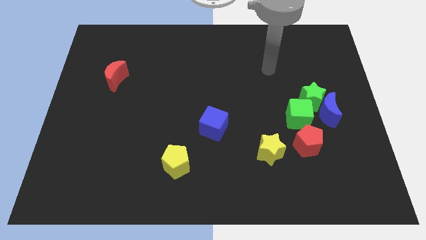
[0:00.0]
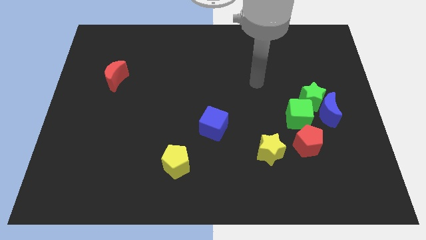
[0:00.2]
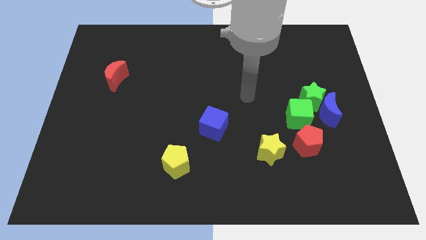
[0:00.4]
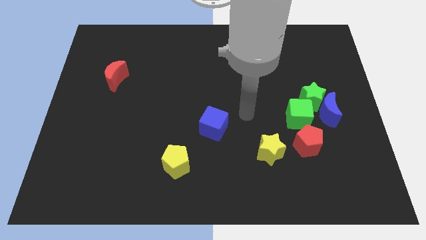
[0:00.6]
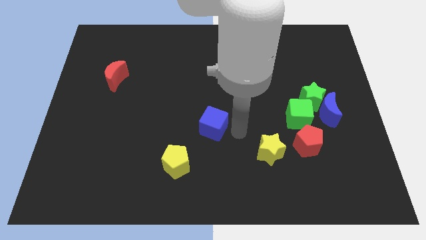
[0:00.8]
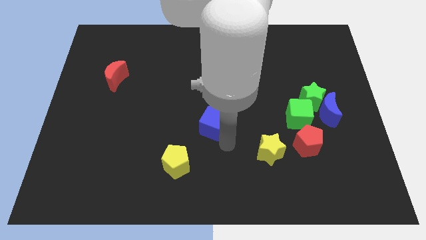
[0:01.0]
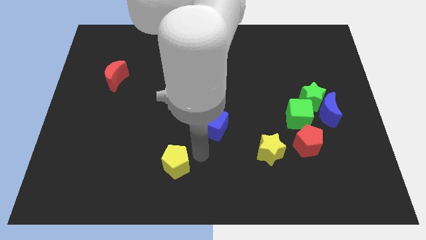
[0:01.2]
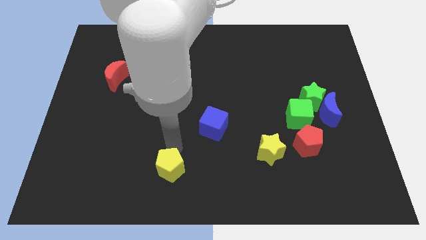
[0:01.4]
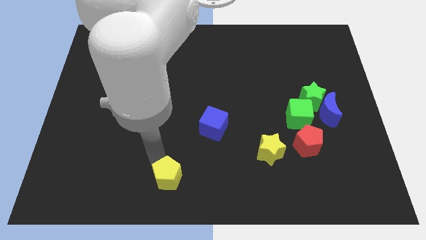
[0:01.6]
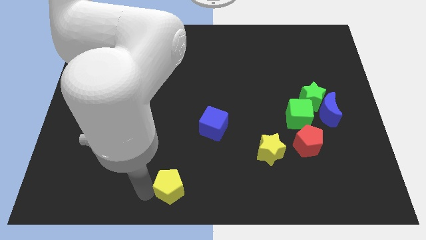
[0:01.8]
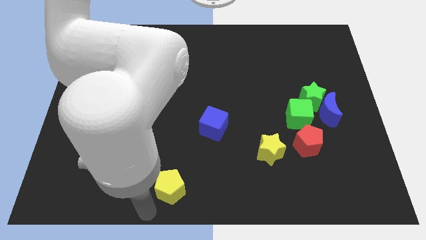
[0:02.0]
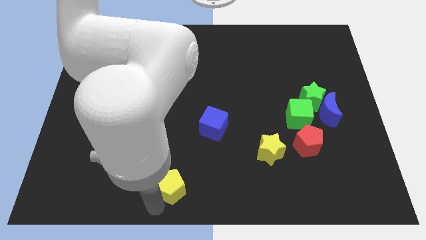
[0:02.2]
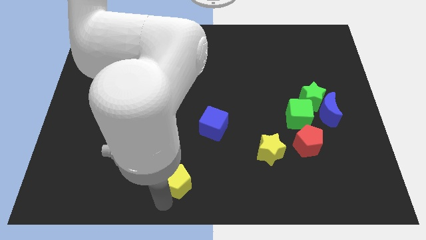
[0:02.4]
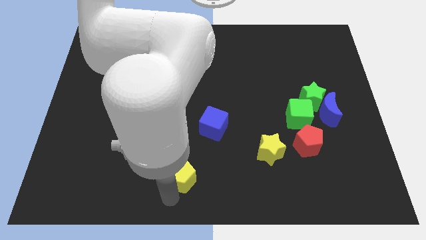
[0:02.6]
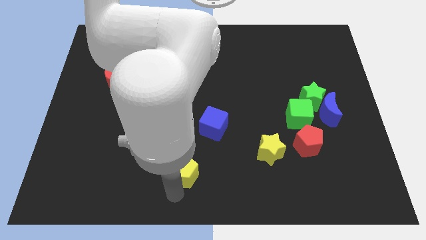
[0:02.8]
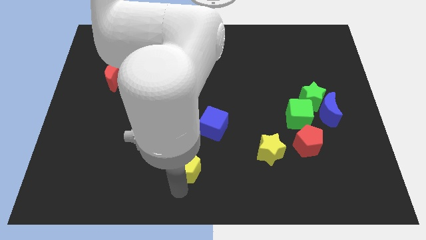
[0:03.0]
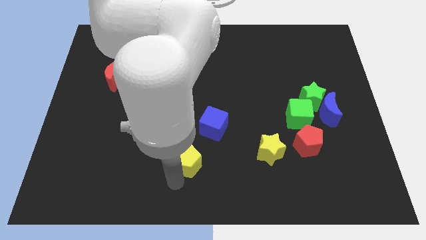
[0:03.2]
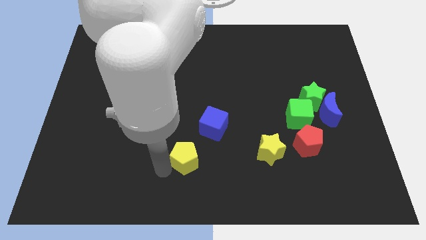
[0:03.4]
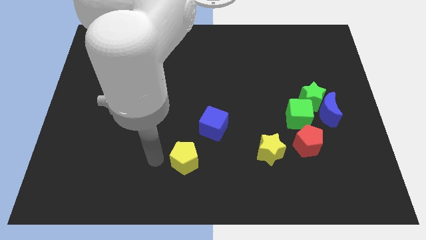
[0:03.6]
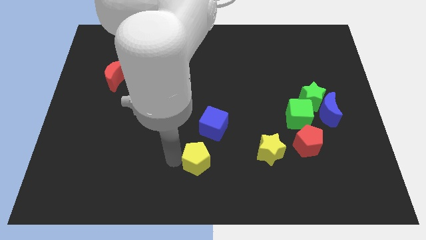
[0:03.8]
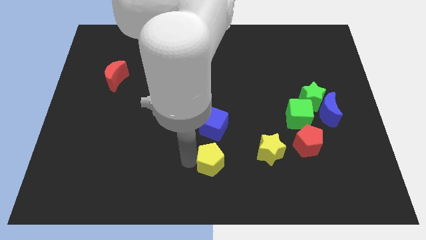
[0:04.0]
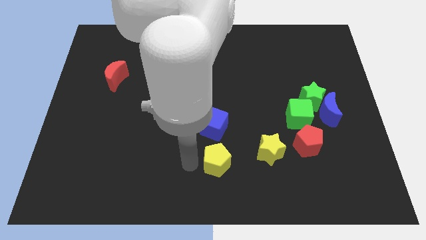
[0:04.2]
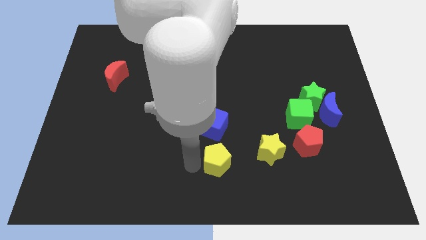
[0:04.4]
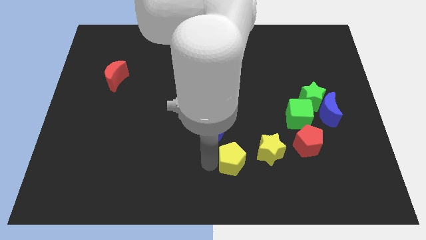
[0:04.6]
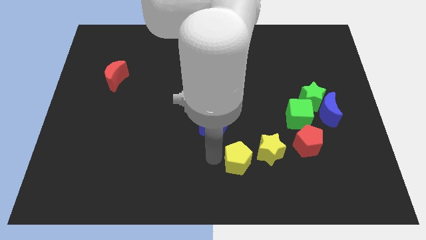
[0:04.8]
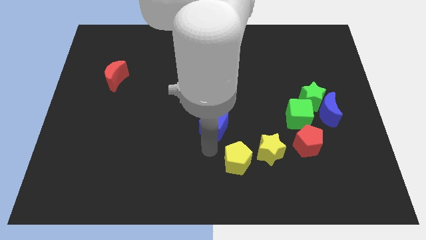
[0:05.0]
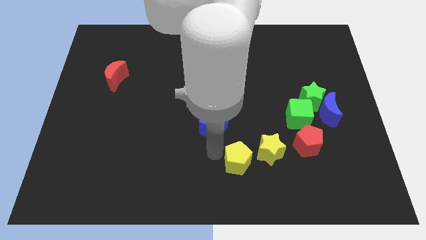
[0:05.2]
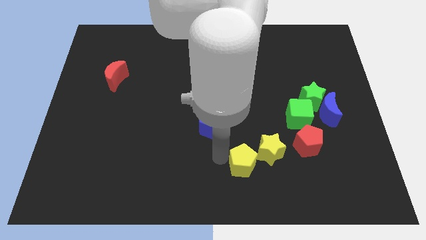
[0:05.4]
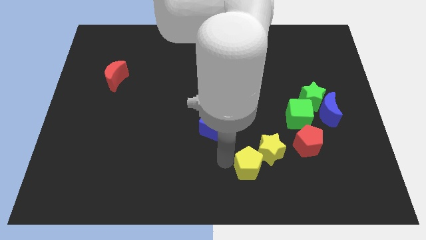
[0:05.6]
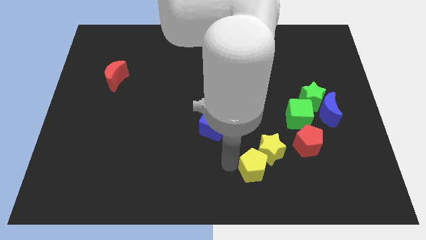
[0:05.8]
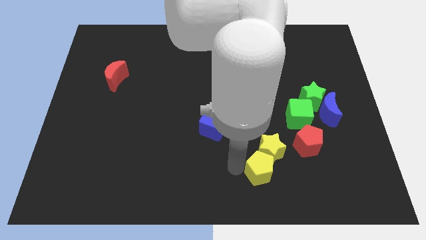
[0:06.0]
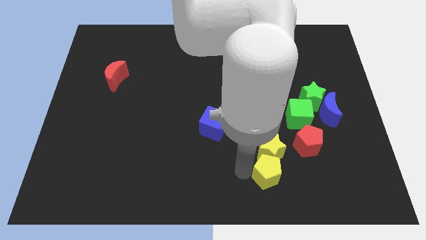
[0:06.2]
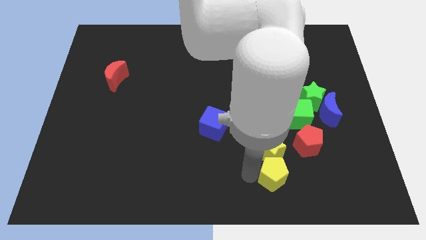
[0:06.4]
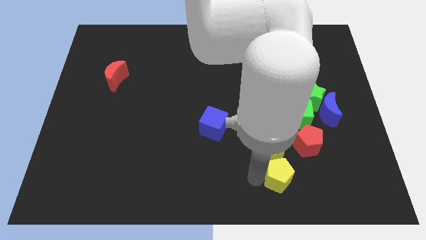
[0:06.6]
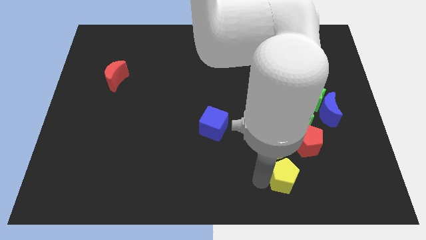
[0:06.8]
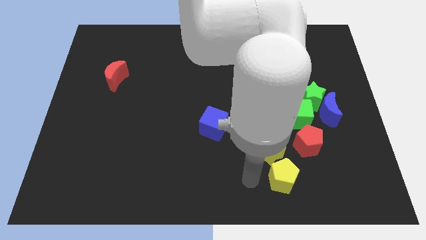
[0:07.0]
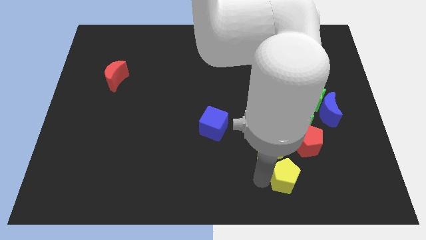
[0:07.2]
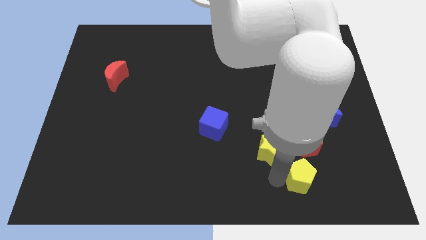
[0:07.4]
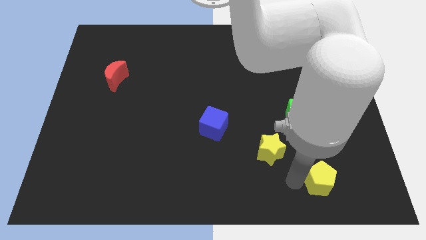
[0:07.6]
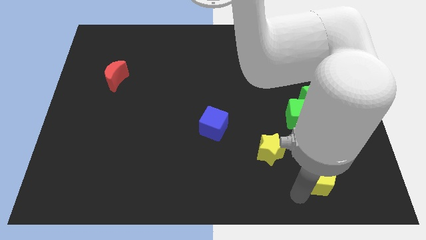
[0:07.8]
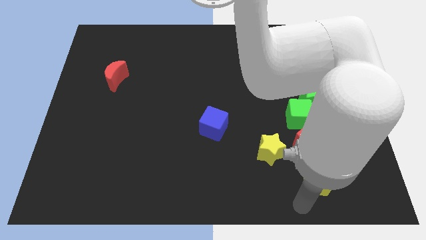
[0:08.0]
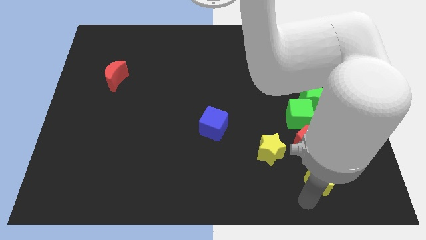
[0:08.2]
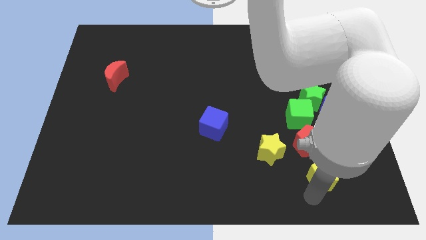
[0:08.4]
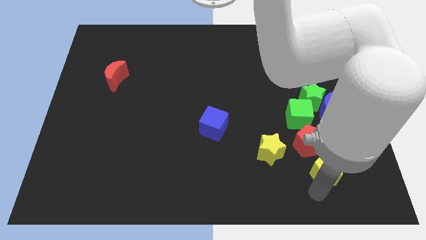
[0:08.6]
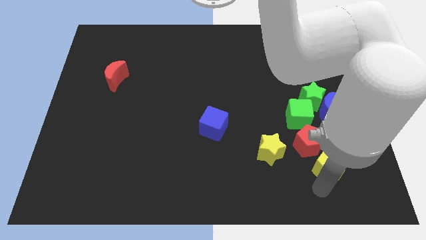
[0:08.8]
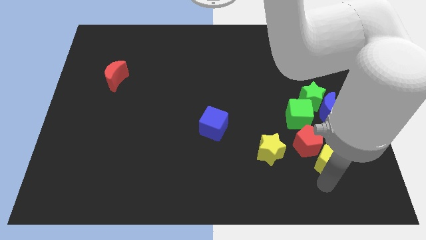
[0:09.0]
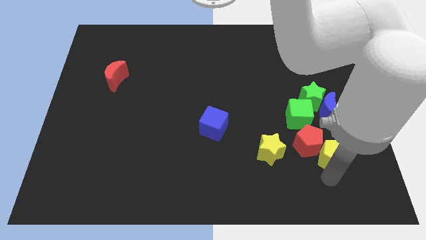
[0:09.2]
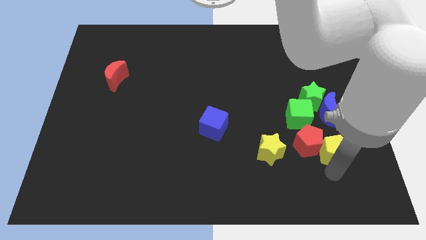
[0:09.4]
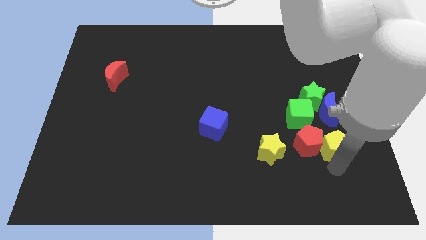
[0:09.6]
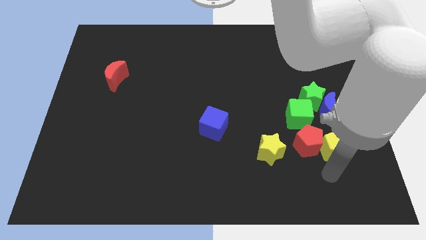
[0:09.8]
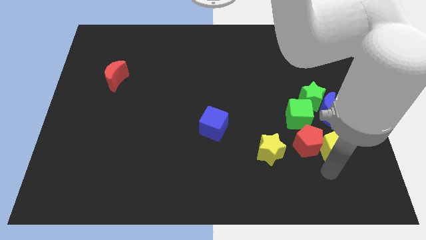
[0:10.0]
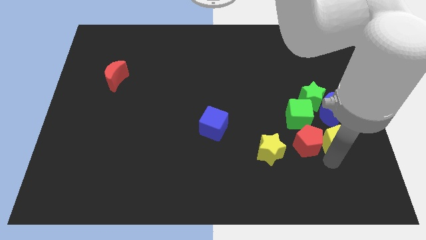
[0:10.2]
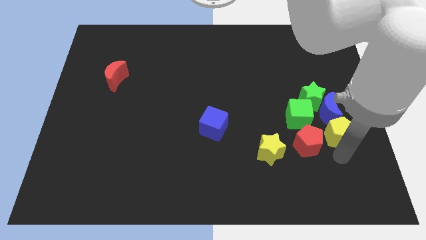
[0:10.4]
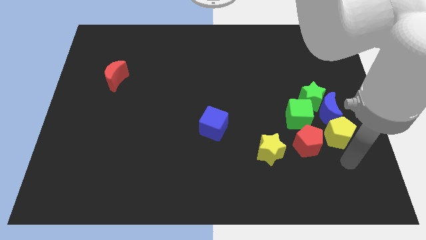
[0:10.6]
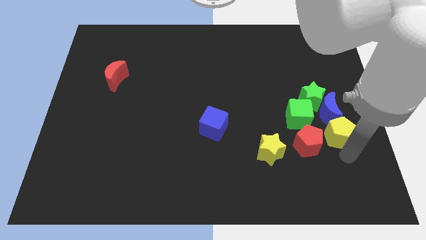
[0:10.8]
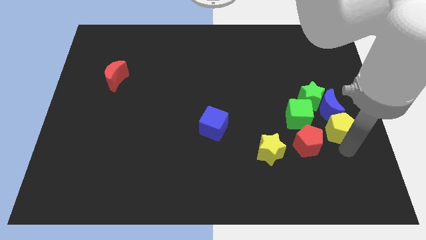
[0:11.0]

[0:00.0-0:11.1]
slide the yellow pentagon close to the blue moon

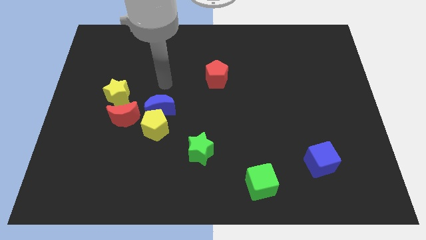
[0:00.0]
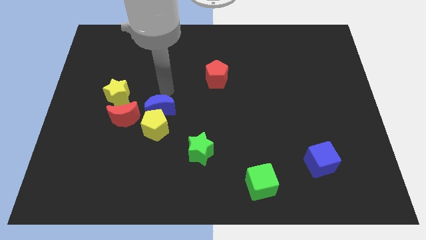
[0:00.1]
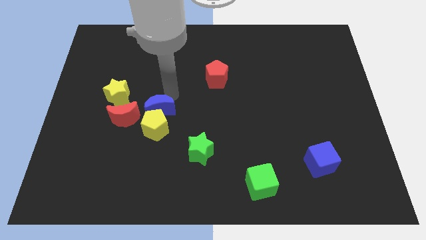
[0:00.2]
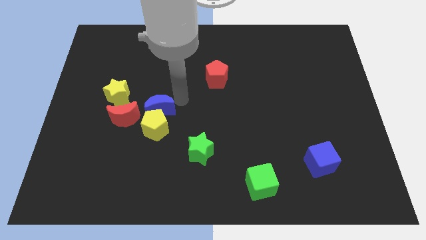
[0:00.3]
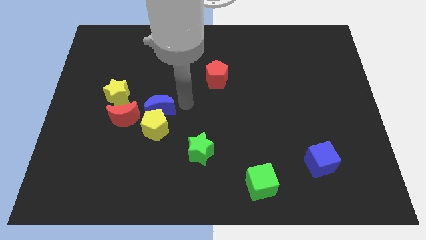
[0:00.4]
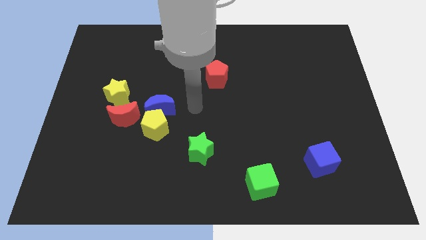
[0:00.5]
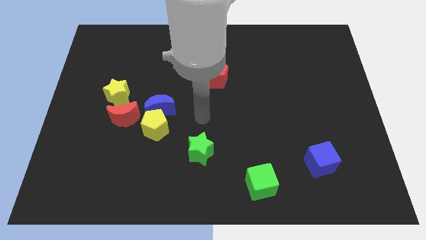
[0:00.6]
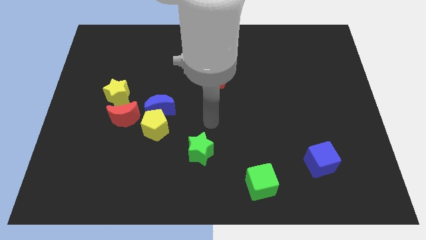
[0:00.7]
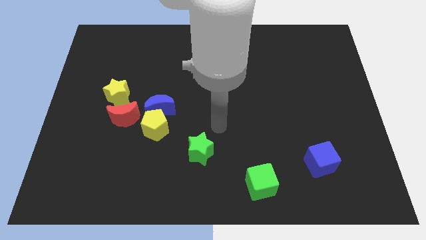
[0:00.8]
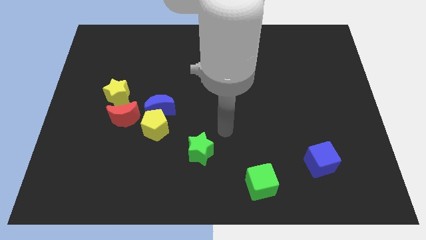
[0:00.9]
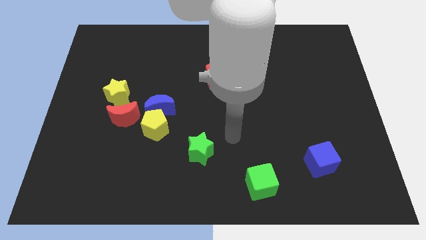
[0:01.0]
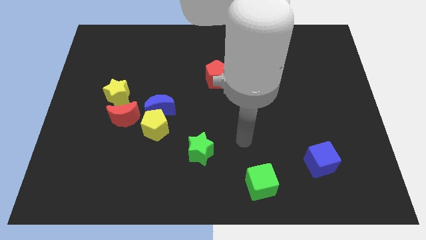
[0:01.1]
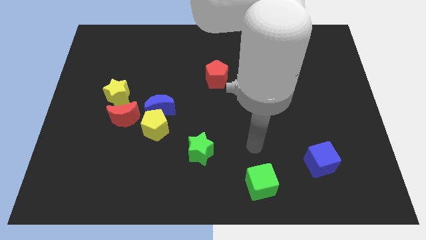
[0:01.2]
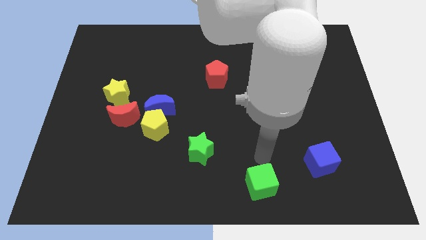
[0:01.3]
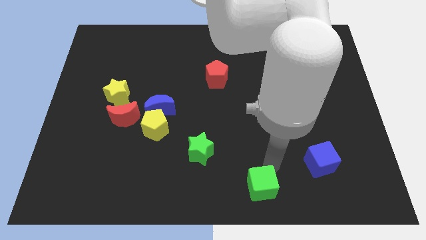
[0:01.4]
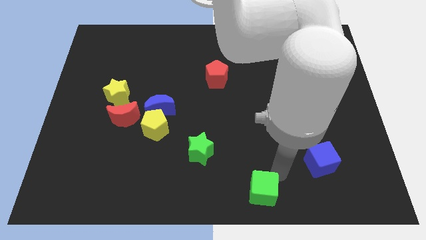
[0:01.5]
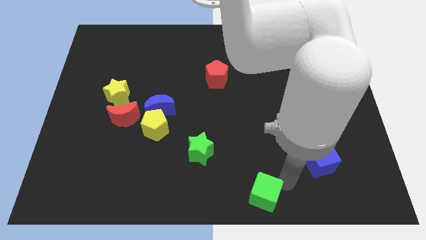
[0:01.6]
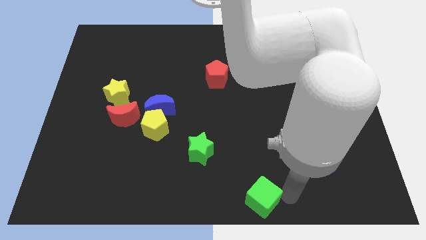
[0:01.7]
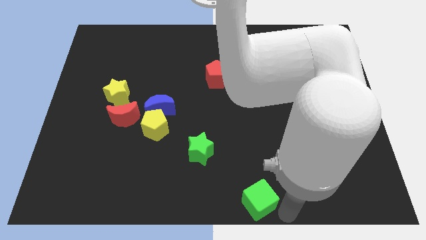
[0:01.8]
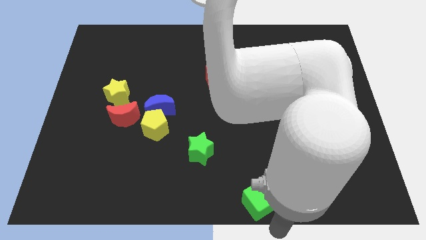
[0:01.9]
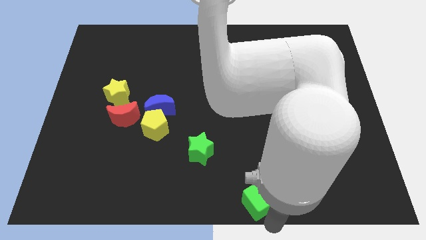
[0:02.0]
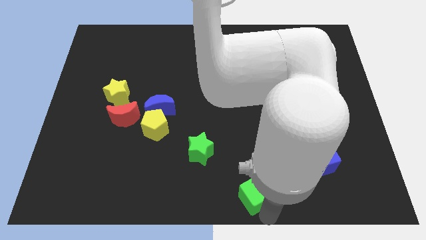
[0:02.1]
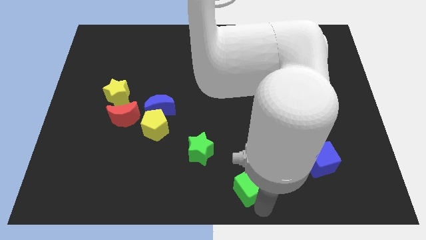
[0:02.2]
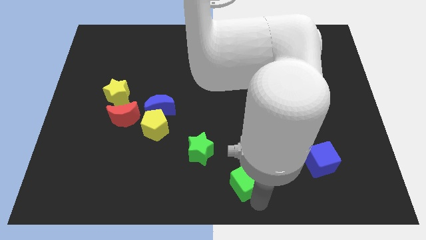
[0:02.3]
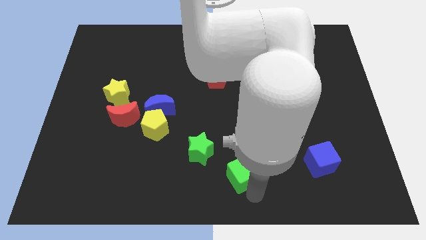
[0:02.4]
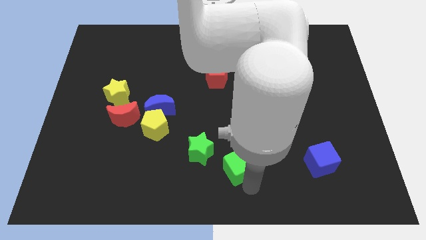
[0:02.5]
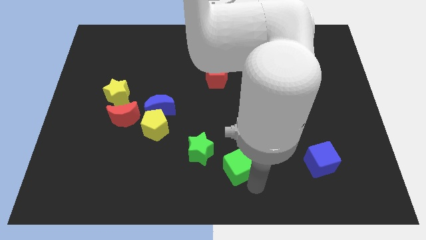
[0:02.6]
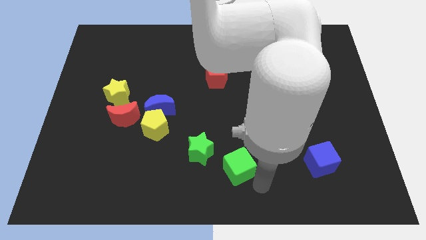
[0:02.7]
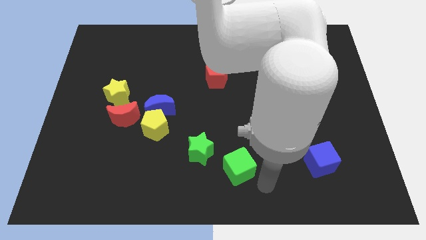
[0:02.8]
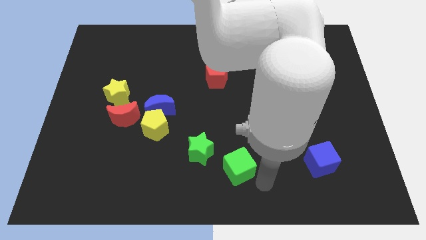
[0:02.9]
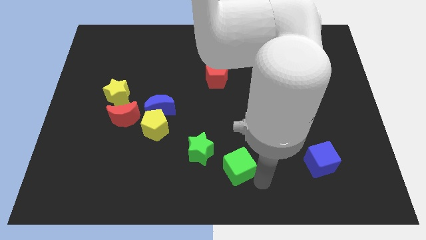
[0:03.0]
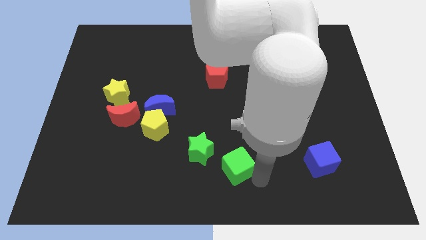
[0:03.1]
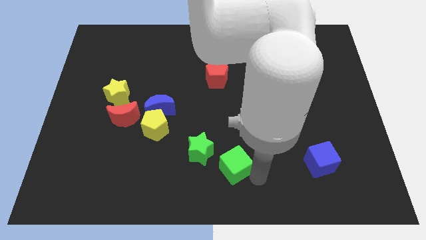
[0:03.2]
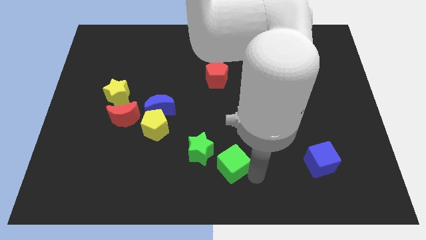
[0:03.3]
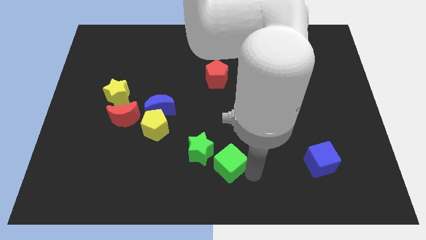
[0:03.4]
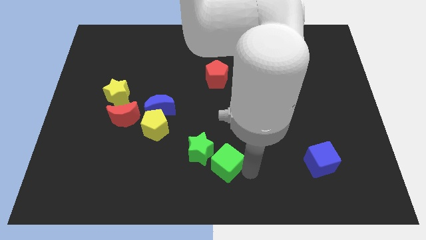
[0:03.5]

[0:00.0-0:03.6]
slide the green cube to the green star
